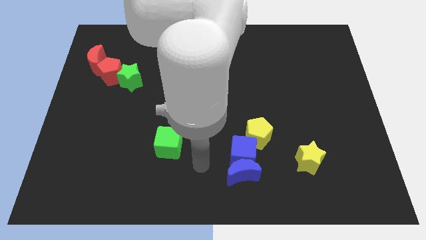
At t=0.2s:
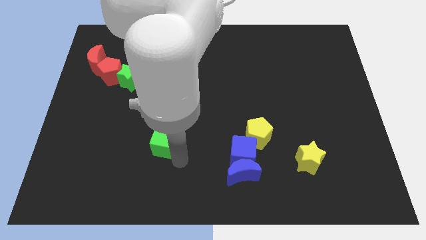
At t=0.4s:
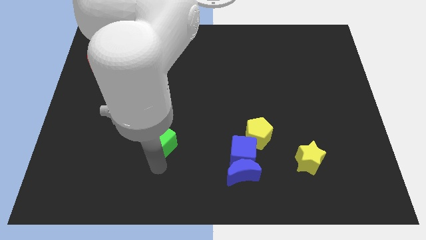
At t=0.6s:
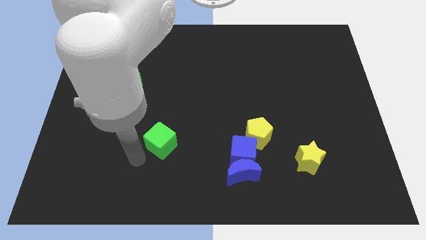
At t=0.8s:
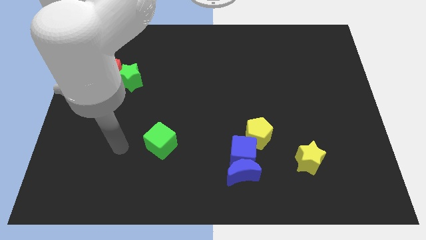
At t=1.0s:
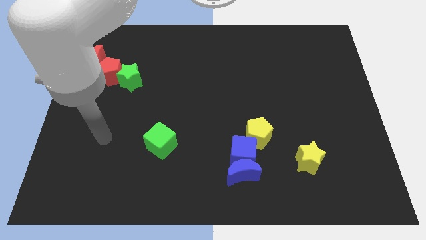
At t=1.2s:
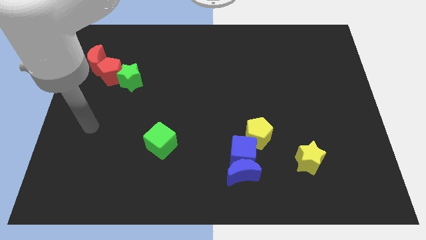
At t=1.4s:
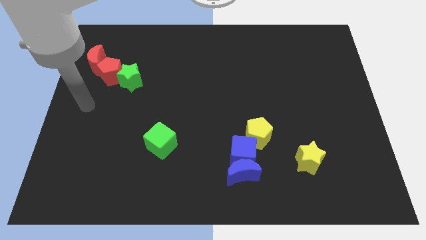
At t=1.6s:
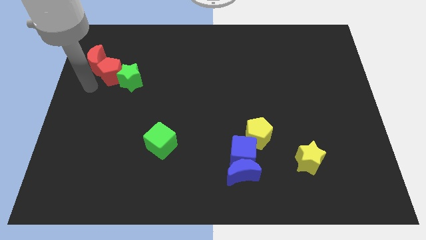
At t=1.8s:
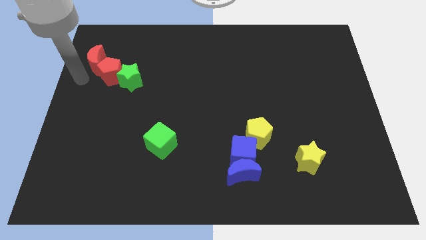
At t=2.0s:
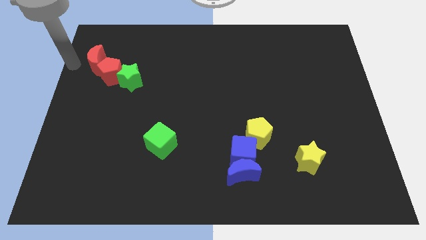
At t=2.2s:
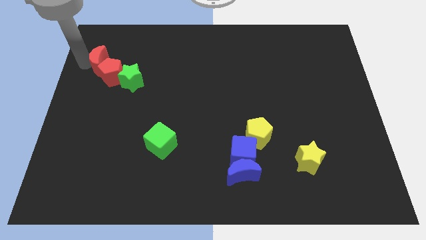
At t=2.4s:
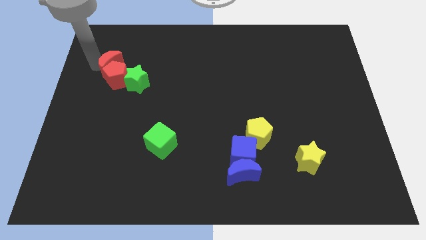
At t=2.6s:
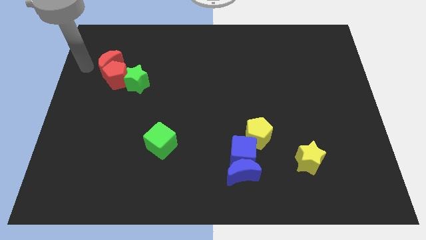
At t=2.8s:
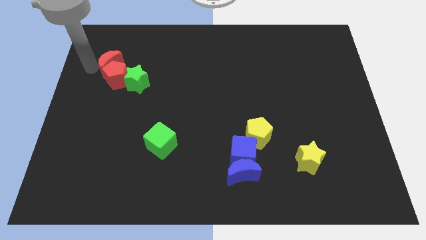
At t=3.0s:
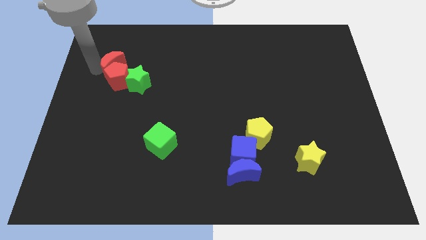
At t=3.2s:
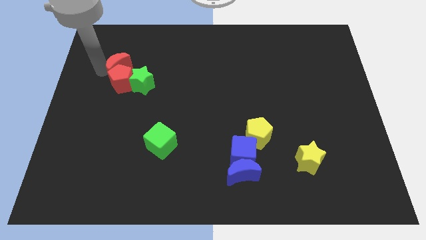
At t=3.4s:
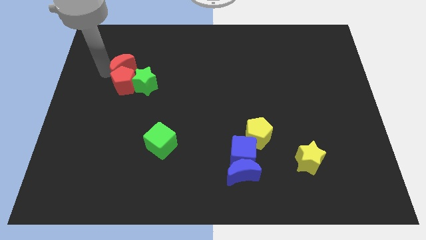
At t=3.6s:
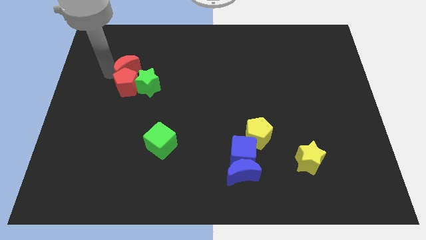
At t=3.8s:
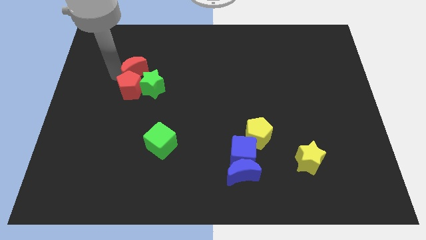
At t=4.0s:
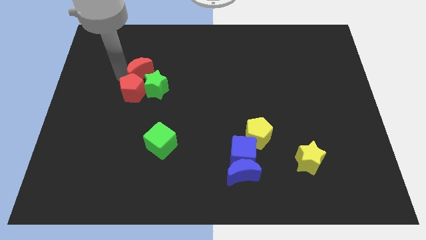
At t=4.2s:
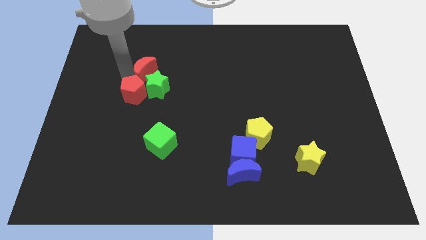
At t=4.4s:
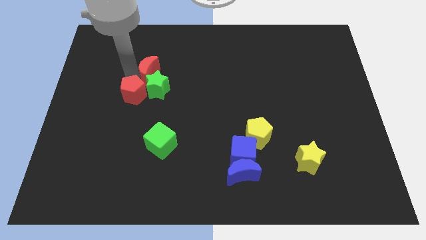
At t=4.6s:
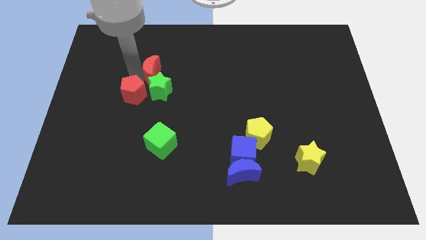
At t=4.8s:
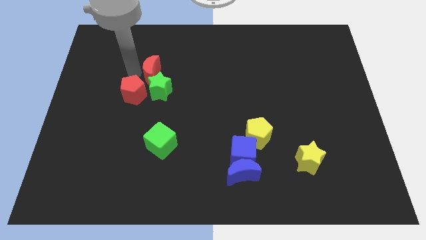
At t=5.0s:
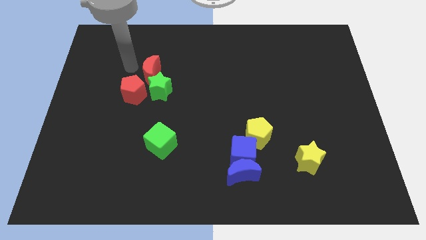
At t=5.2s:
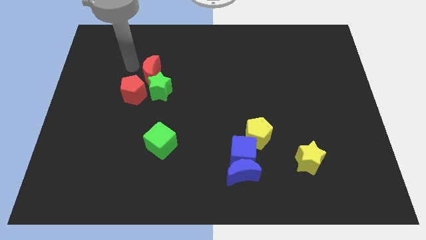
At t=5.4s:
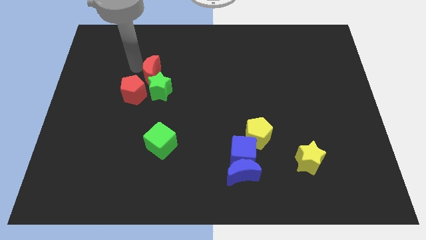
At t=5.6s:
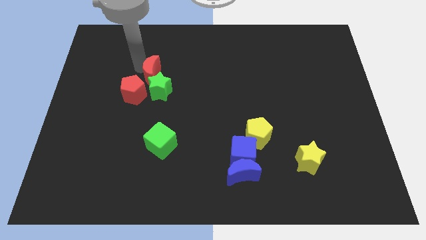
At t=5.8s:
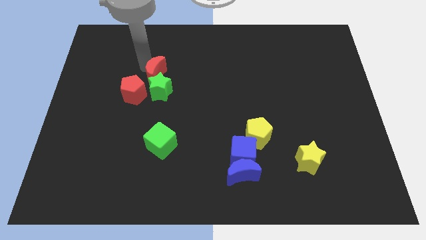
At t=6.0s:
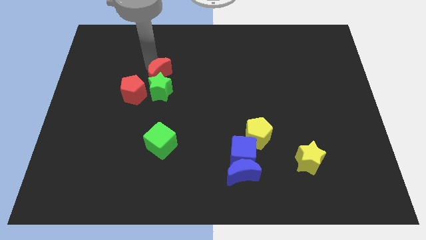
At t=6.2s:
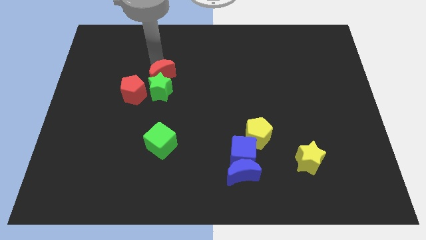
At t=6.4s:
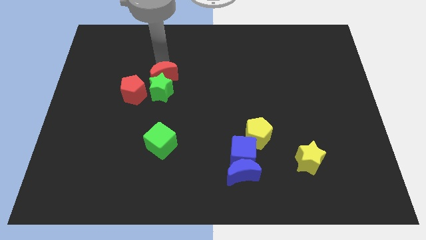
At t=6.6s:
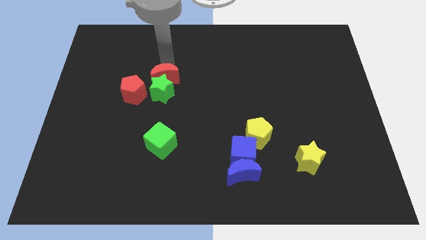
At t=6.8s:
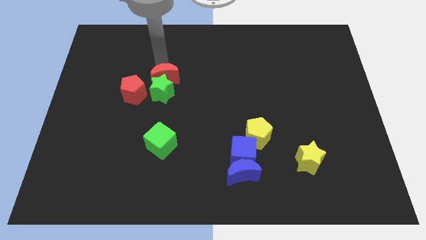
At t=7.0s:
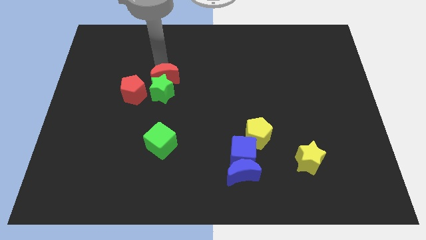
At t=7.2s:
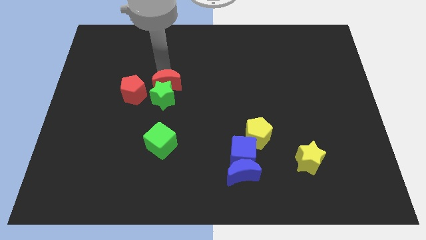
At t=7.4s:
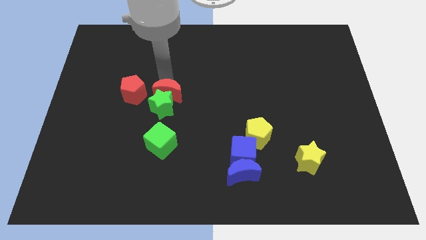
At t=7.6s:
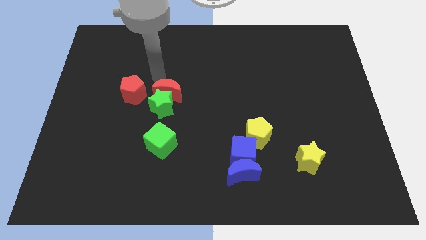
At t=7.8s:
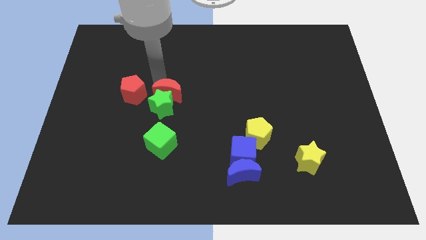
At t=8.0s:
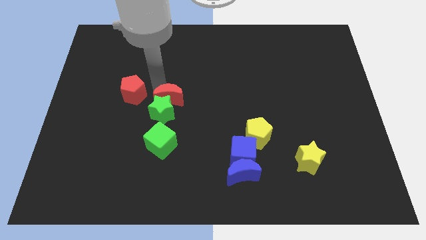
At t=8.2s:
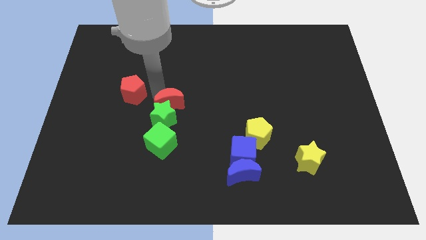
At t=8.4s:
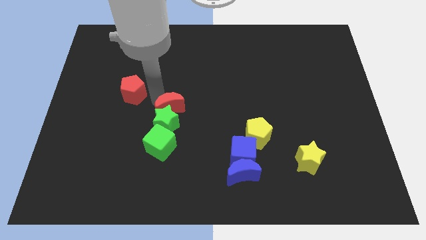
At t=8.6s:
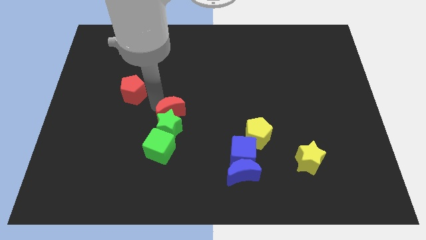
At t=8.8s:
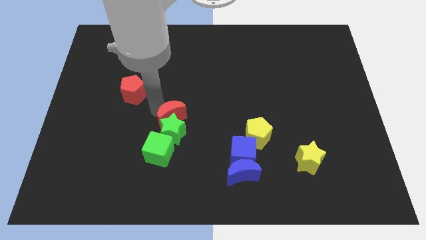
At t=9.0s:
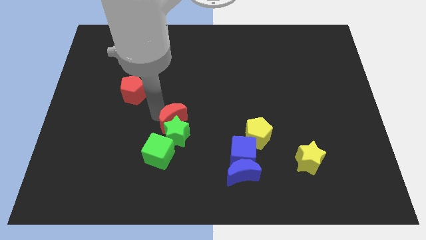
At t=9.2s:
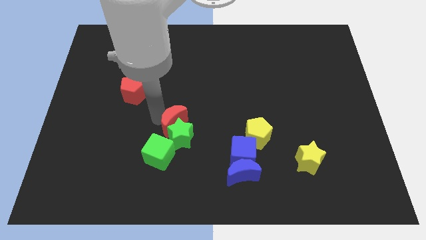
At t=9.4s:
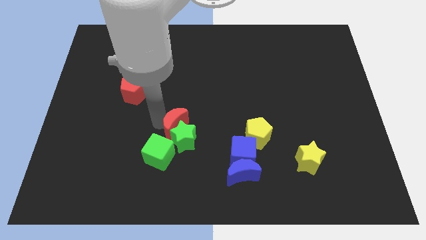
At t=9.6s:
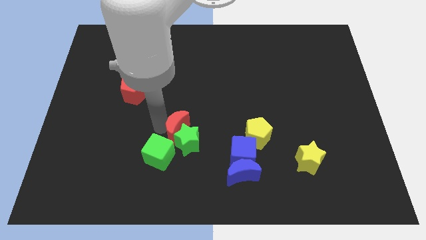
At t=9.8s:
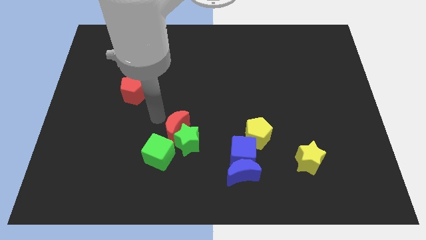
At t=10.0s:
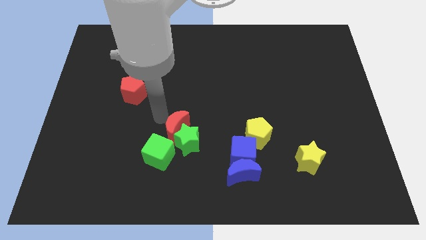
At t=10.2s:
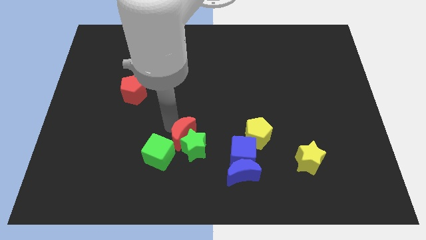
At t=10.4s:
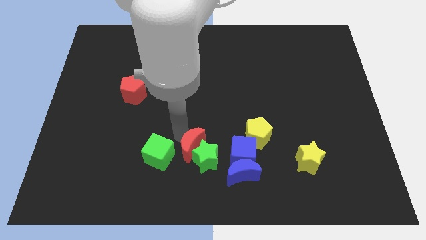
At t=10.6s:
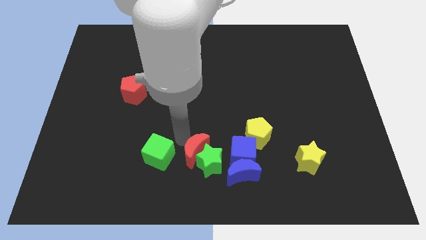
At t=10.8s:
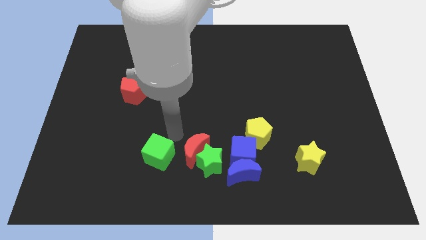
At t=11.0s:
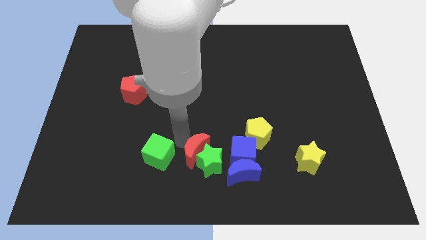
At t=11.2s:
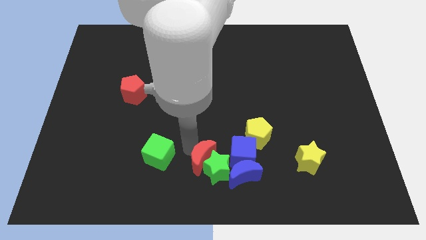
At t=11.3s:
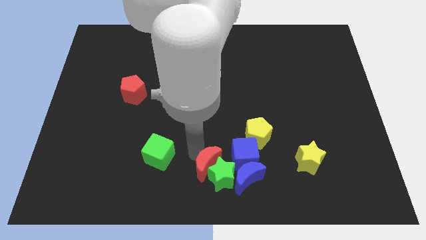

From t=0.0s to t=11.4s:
put the red moon to the bottom left of the blue cube

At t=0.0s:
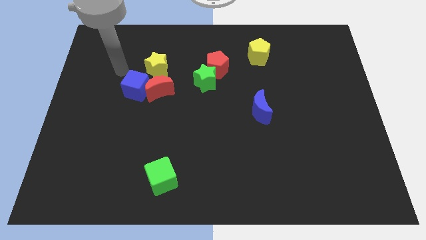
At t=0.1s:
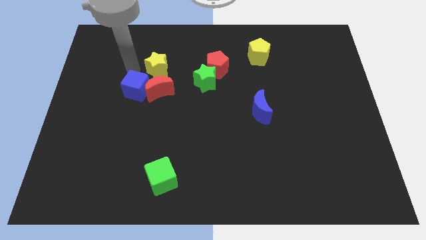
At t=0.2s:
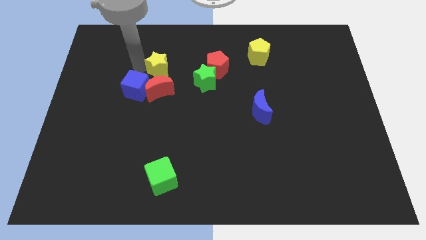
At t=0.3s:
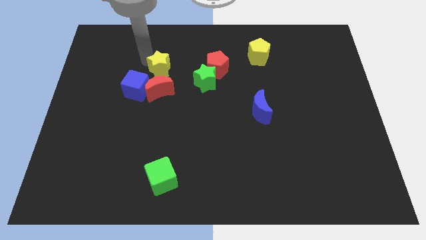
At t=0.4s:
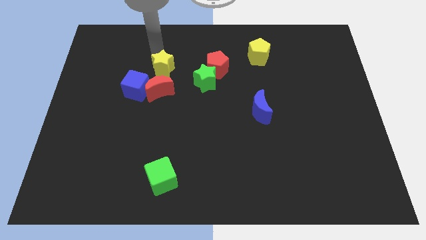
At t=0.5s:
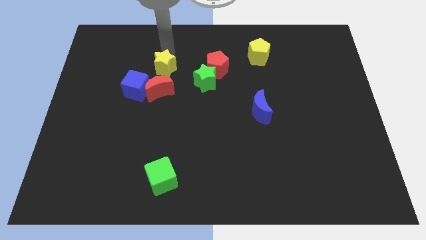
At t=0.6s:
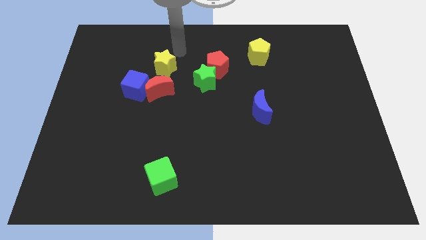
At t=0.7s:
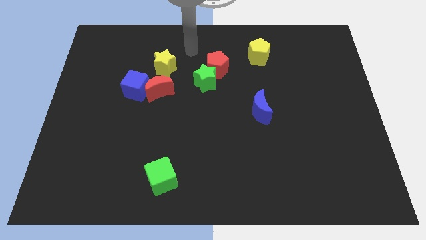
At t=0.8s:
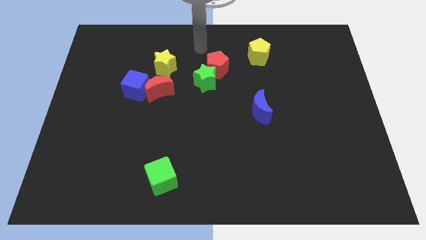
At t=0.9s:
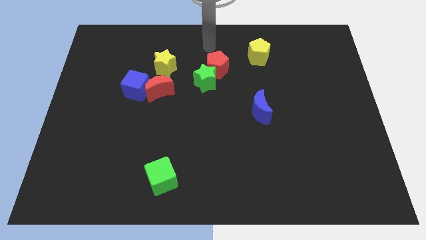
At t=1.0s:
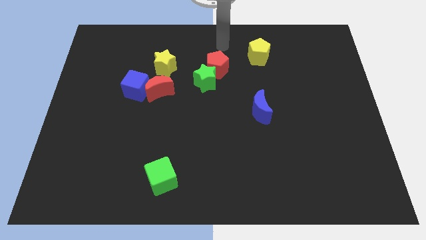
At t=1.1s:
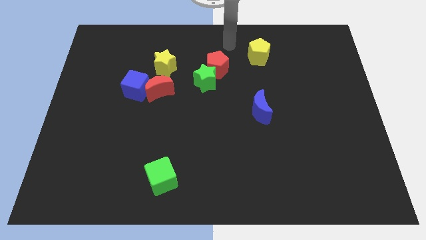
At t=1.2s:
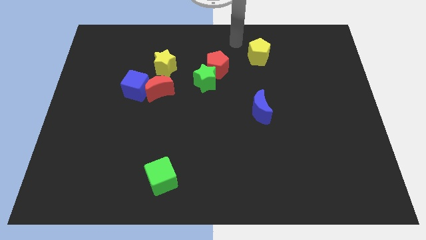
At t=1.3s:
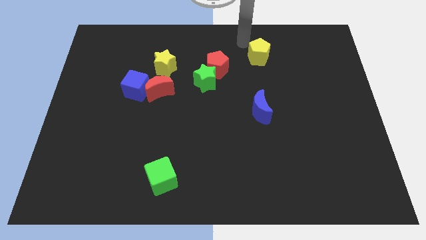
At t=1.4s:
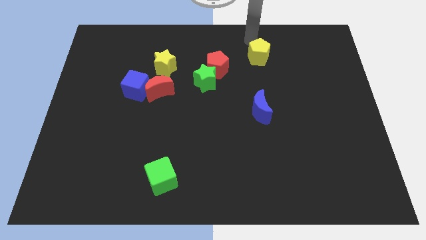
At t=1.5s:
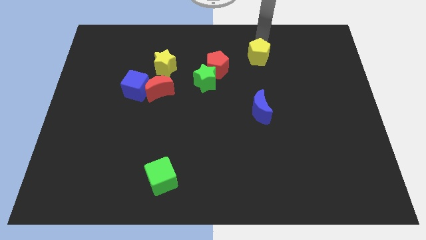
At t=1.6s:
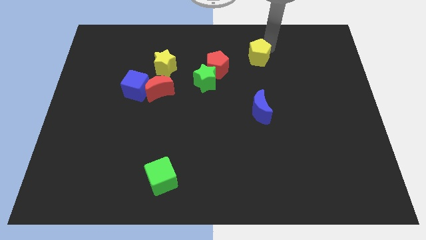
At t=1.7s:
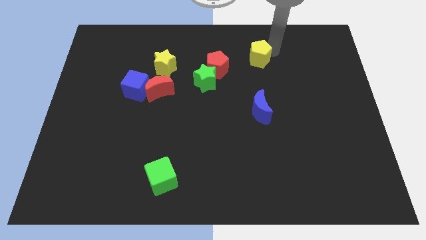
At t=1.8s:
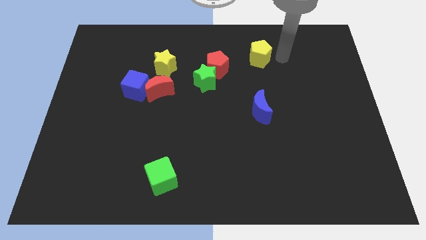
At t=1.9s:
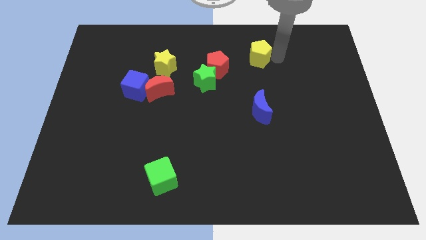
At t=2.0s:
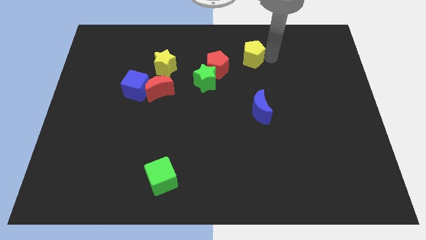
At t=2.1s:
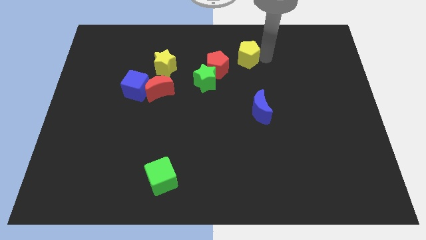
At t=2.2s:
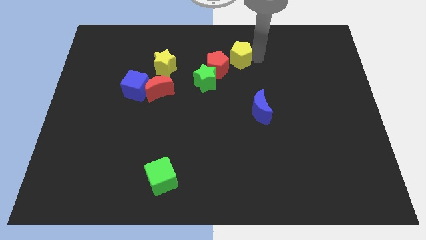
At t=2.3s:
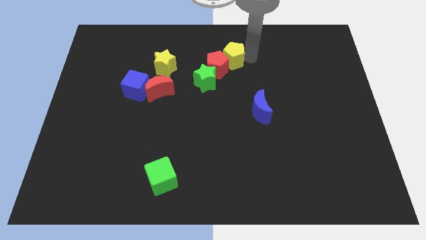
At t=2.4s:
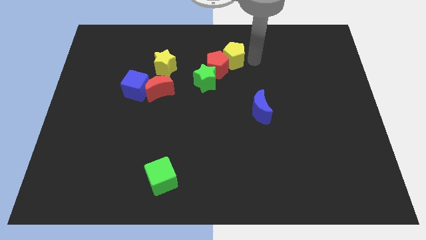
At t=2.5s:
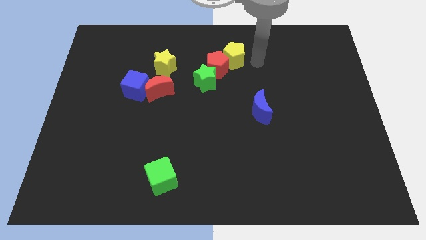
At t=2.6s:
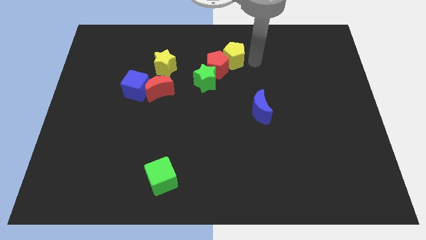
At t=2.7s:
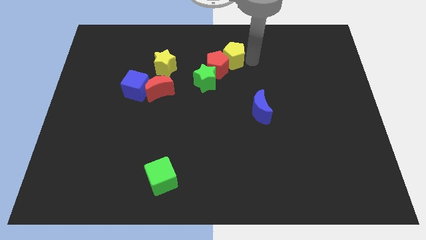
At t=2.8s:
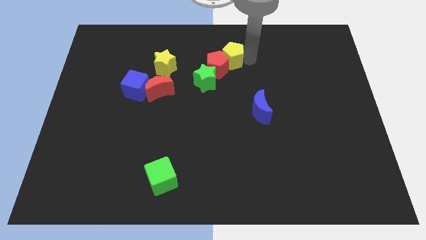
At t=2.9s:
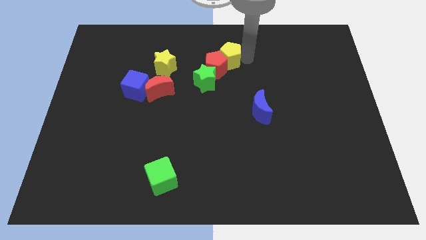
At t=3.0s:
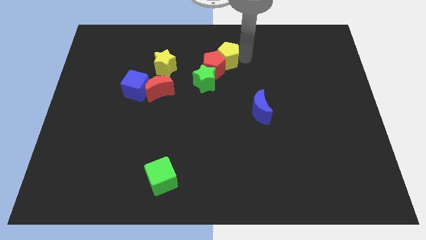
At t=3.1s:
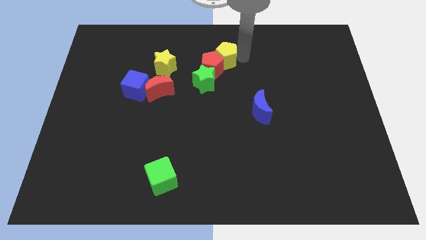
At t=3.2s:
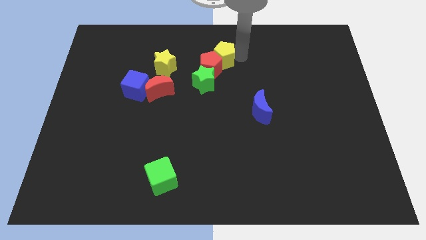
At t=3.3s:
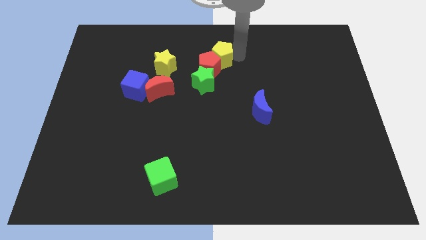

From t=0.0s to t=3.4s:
slide the yellow pentagon to the right side of the yellow star
